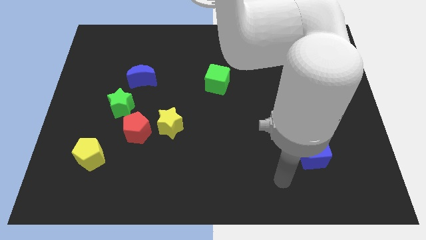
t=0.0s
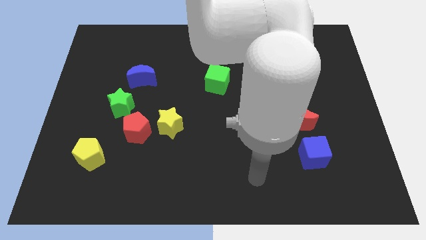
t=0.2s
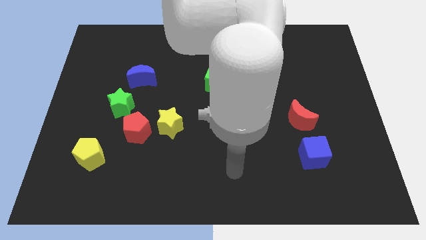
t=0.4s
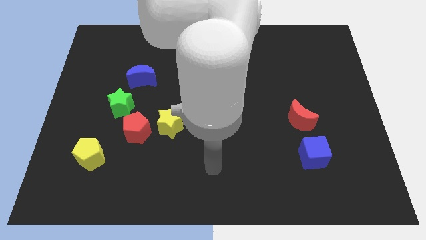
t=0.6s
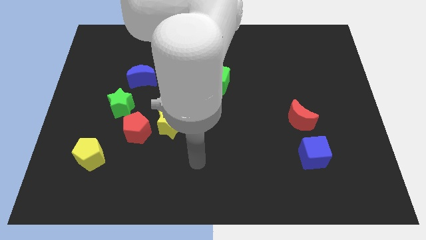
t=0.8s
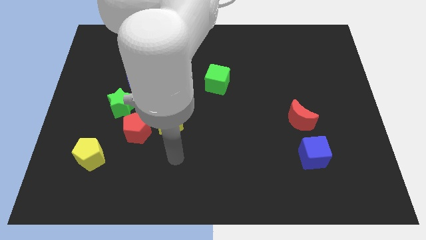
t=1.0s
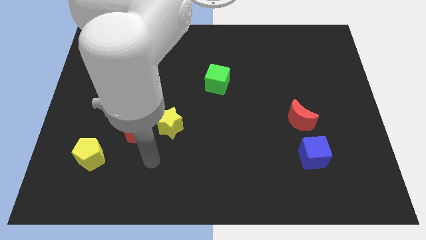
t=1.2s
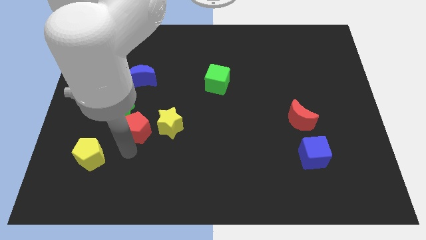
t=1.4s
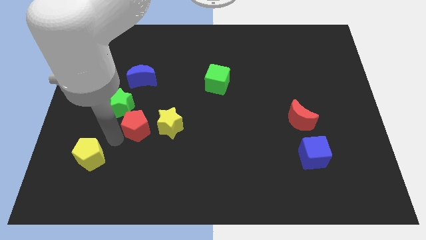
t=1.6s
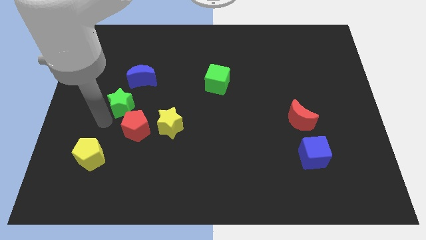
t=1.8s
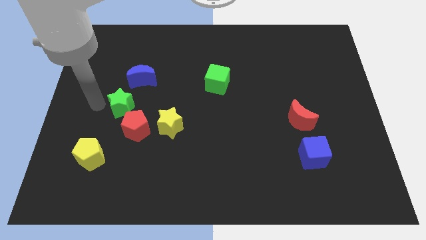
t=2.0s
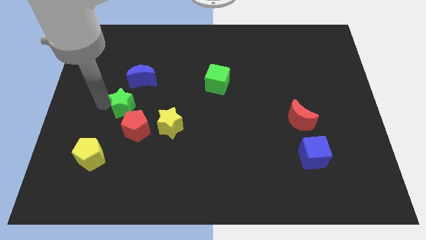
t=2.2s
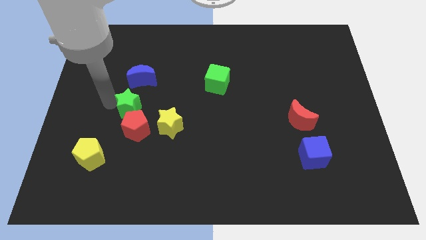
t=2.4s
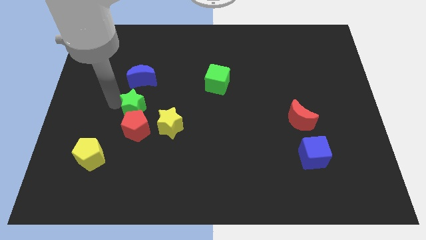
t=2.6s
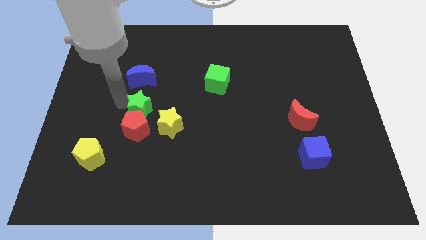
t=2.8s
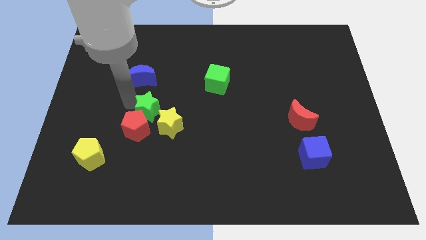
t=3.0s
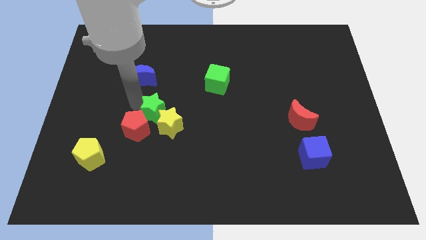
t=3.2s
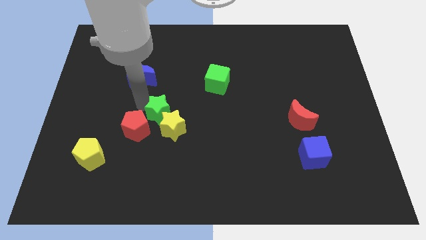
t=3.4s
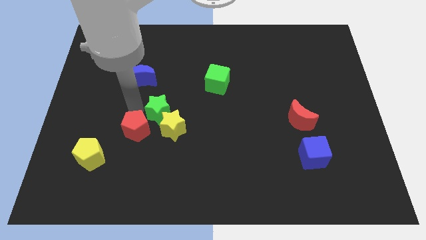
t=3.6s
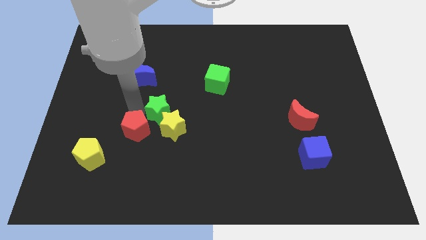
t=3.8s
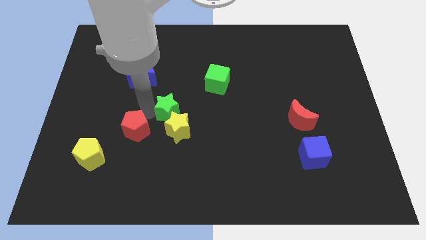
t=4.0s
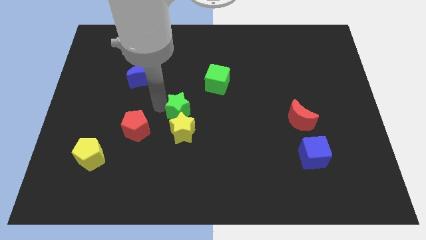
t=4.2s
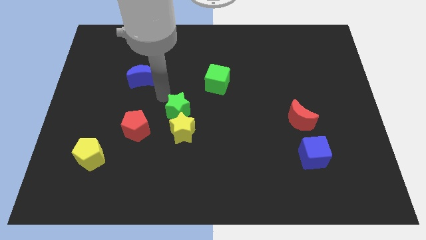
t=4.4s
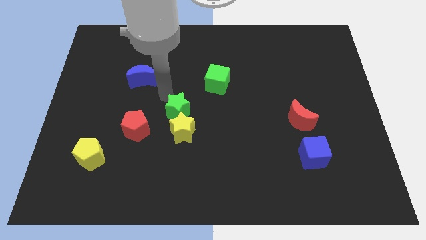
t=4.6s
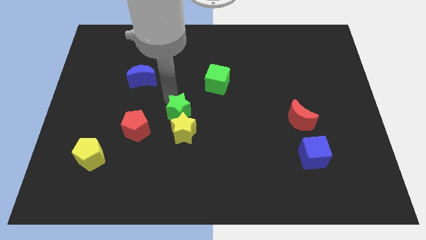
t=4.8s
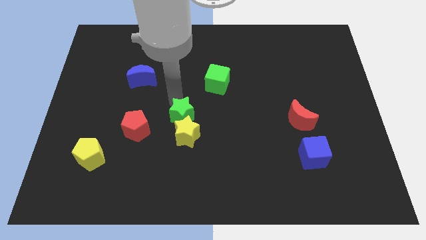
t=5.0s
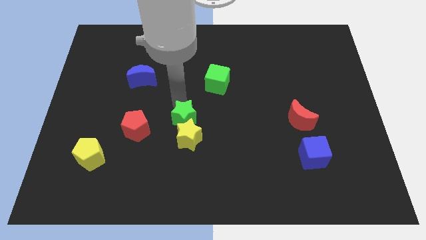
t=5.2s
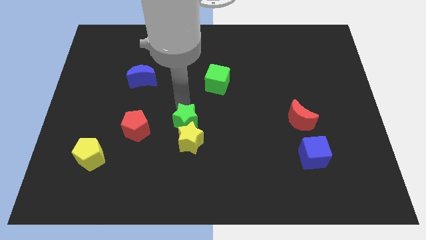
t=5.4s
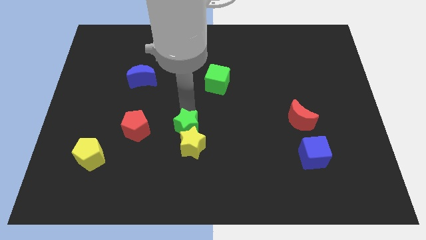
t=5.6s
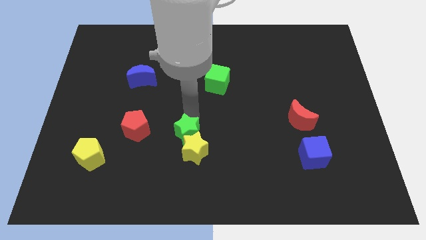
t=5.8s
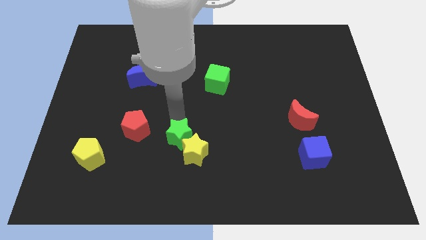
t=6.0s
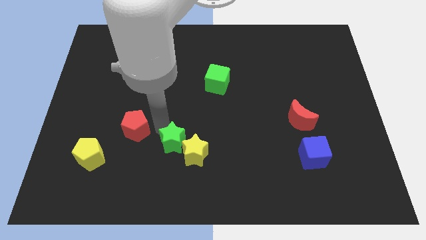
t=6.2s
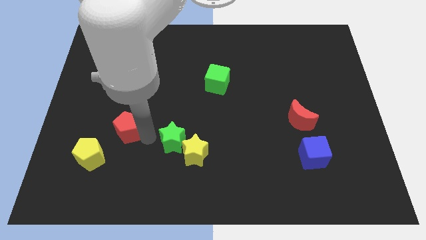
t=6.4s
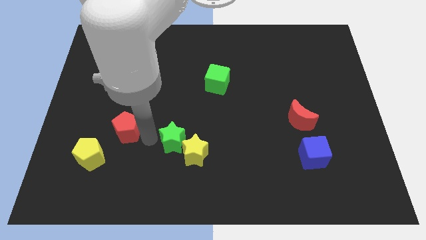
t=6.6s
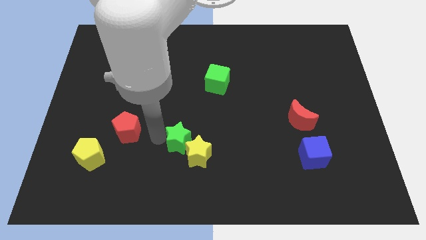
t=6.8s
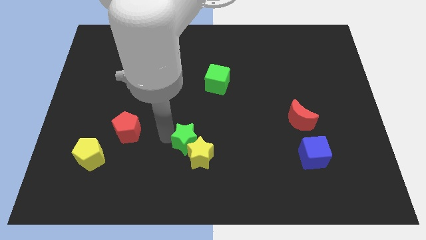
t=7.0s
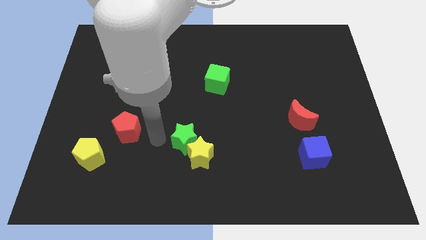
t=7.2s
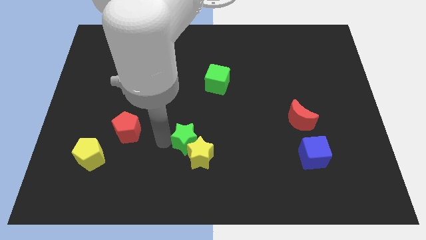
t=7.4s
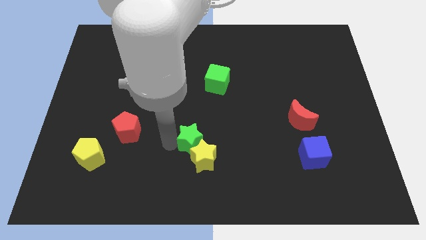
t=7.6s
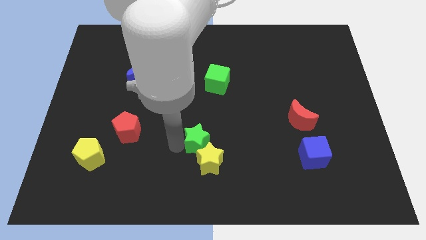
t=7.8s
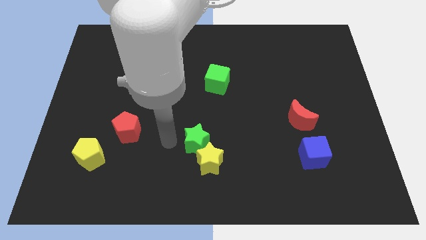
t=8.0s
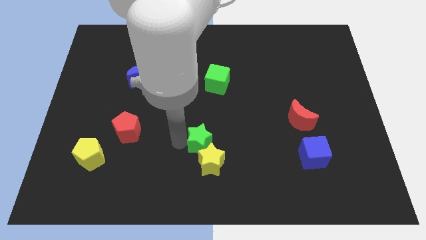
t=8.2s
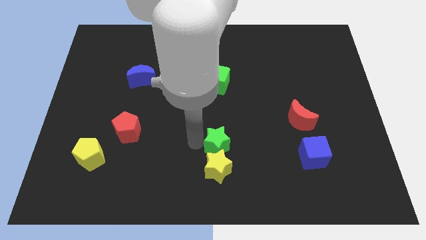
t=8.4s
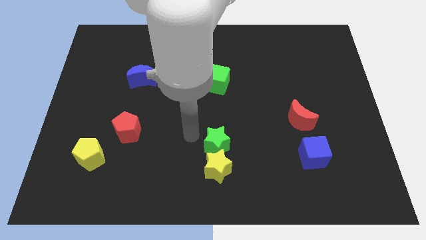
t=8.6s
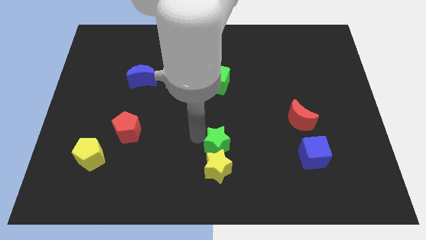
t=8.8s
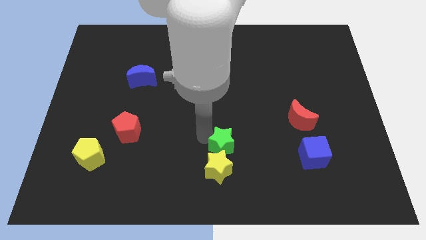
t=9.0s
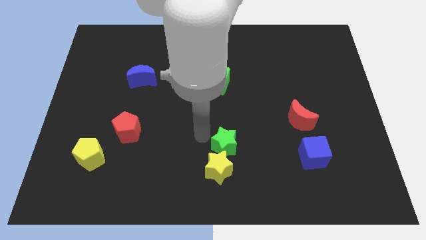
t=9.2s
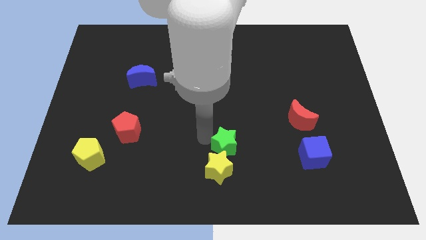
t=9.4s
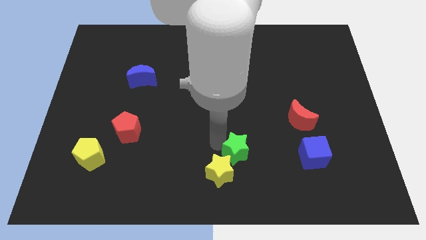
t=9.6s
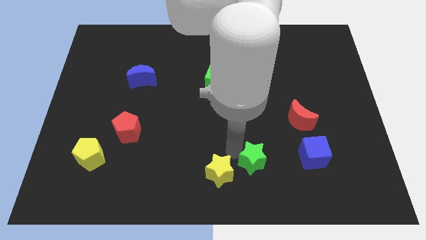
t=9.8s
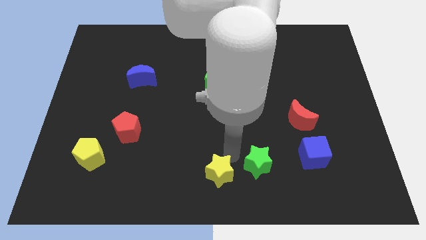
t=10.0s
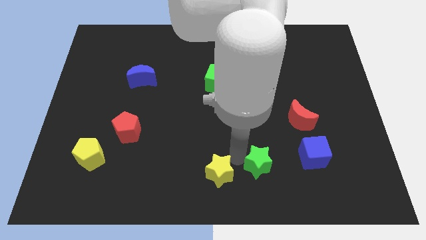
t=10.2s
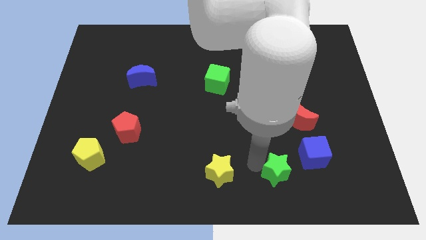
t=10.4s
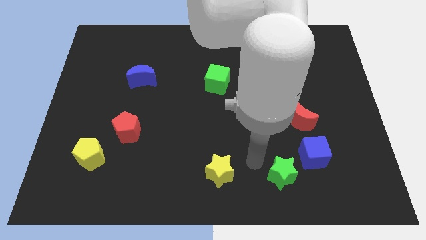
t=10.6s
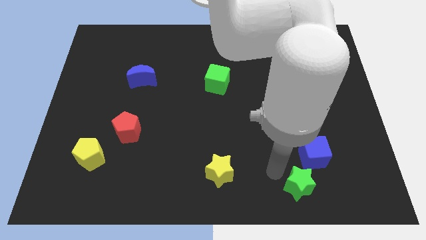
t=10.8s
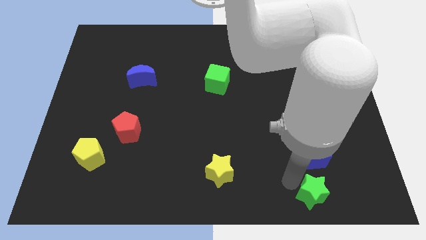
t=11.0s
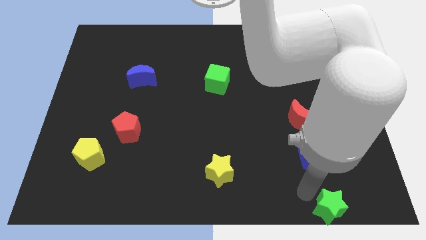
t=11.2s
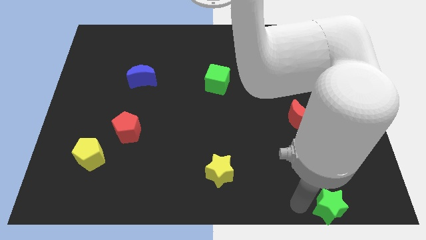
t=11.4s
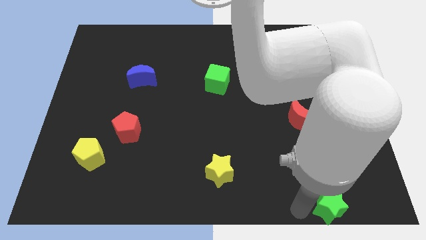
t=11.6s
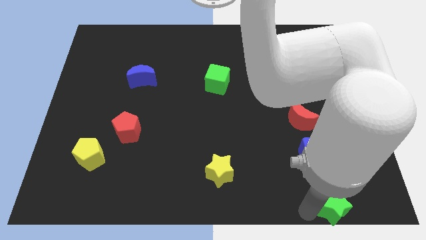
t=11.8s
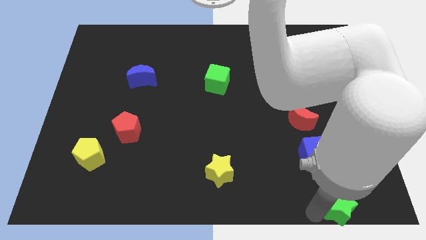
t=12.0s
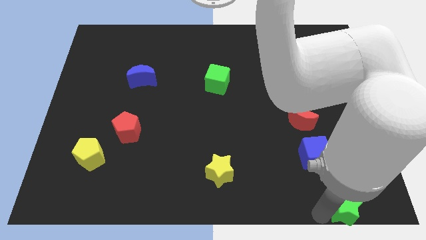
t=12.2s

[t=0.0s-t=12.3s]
put the green star to the lower right corner
